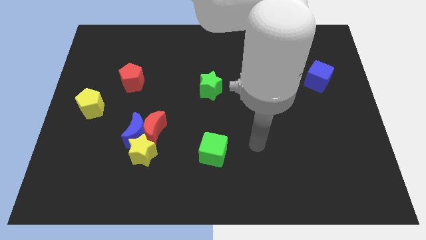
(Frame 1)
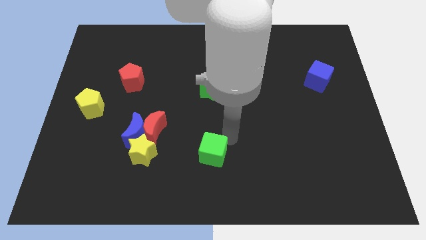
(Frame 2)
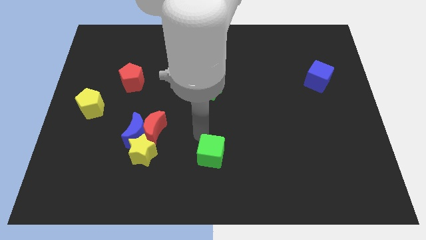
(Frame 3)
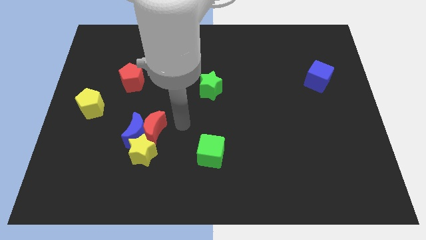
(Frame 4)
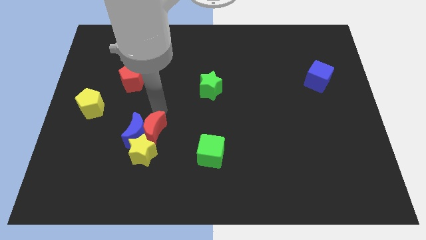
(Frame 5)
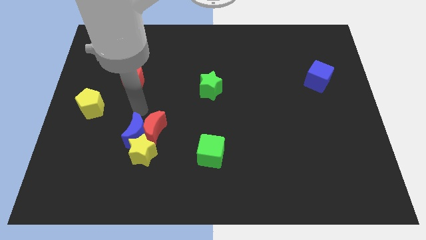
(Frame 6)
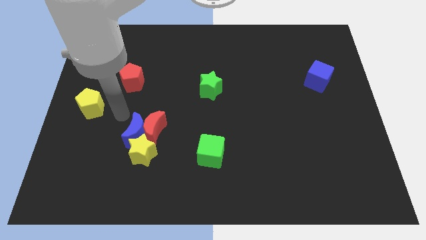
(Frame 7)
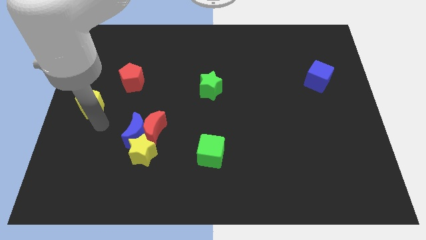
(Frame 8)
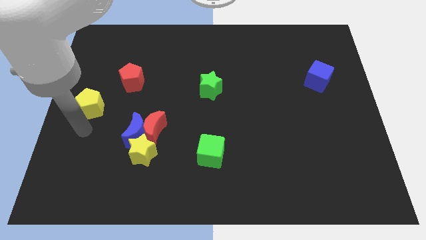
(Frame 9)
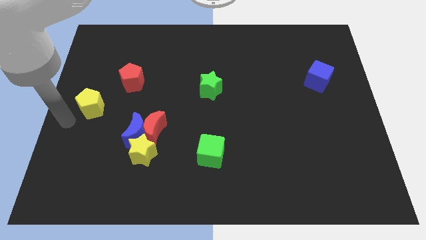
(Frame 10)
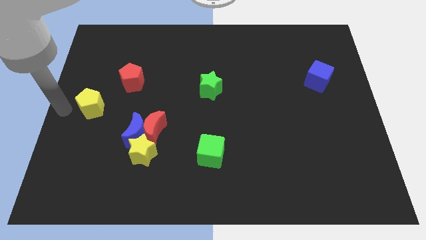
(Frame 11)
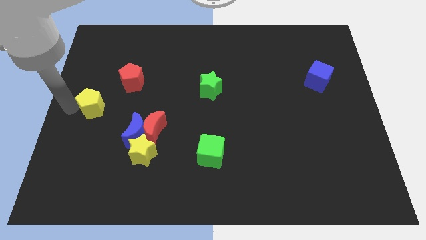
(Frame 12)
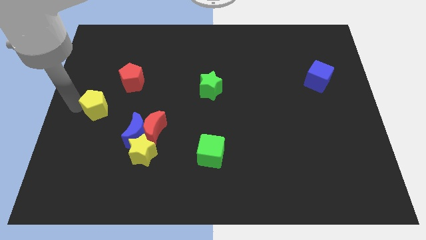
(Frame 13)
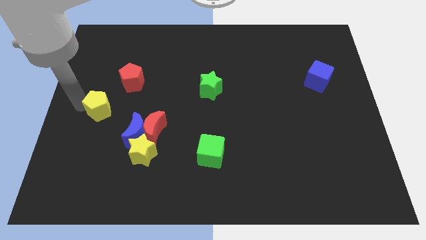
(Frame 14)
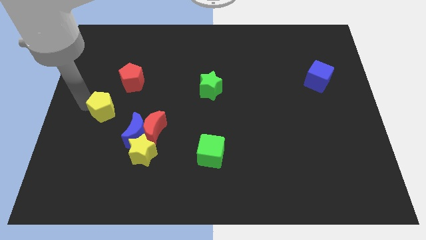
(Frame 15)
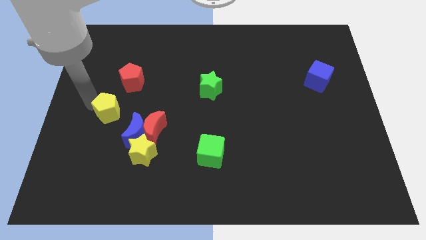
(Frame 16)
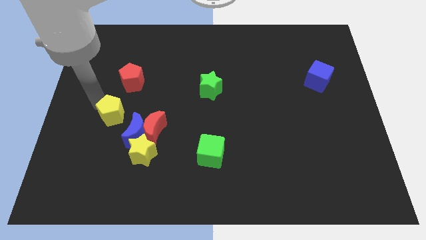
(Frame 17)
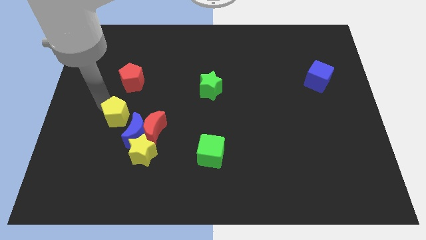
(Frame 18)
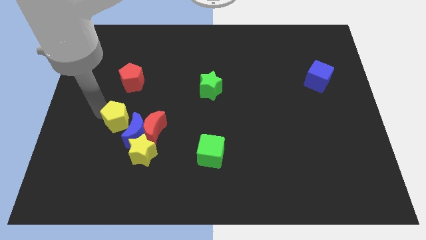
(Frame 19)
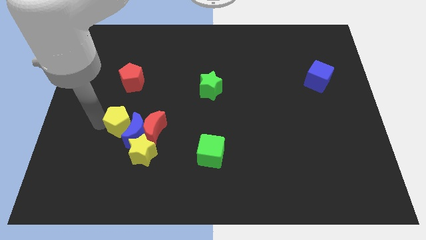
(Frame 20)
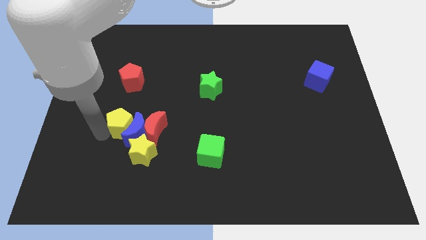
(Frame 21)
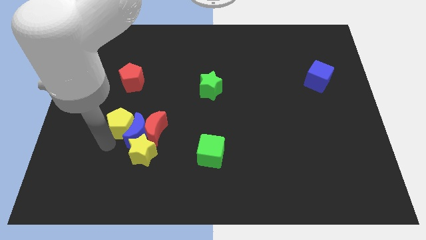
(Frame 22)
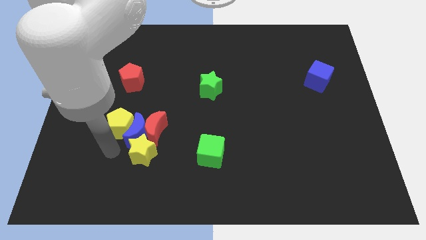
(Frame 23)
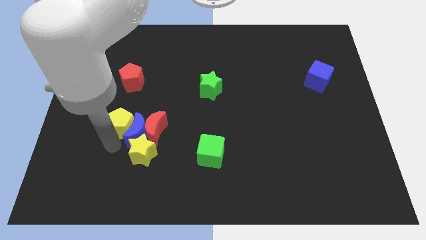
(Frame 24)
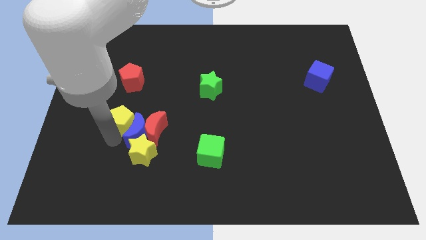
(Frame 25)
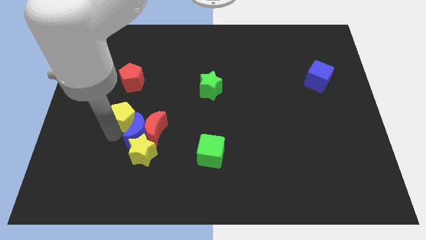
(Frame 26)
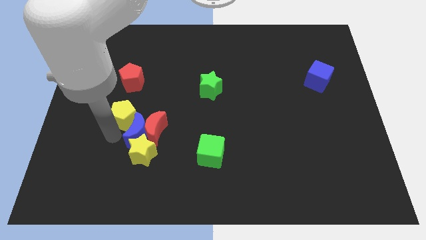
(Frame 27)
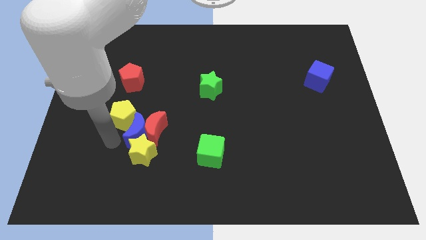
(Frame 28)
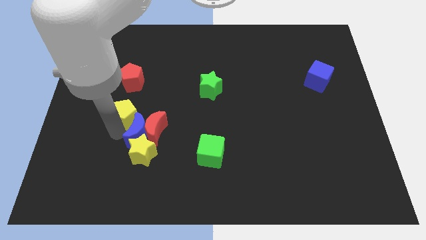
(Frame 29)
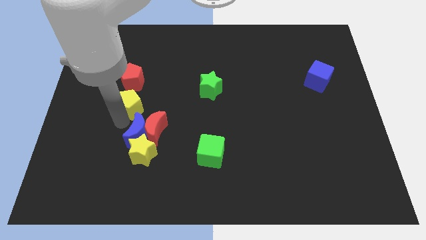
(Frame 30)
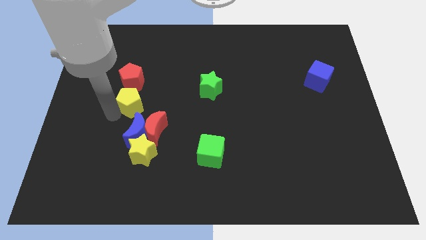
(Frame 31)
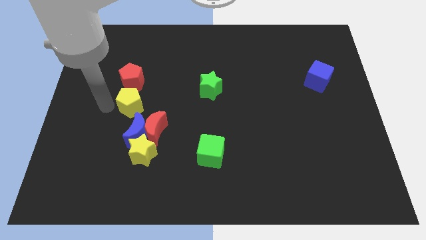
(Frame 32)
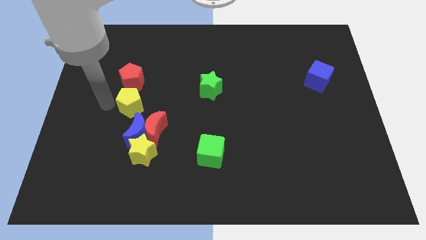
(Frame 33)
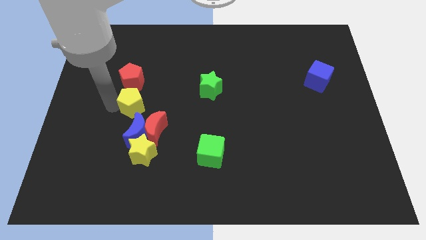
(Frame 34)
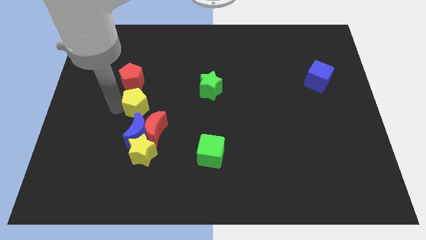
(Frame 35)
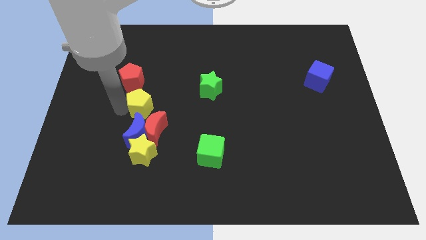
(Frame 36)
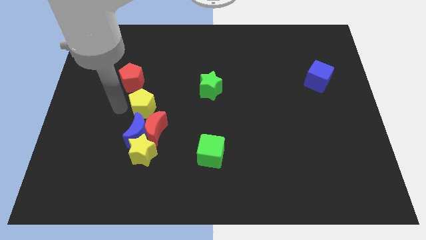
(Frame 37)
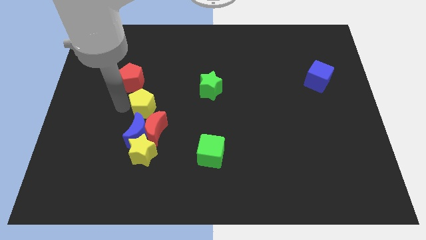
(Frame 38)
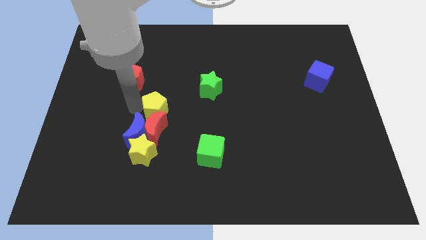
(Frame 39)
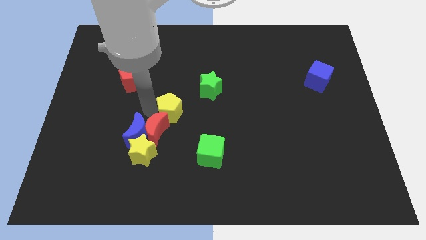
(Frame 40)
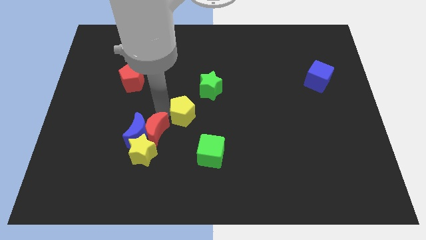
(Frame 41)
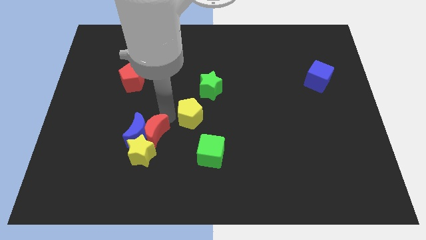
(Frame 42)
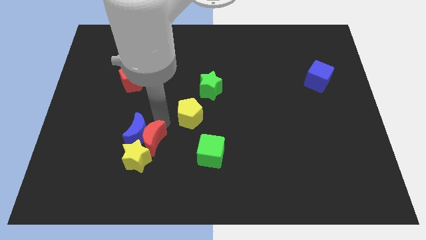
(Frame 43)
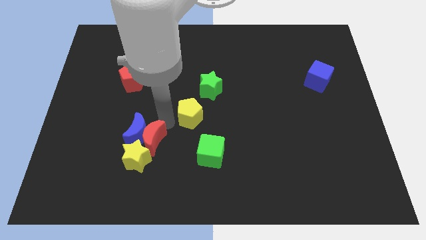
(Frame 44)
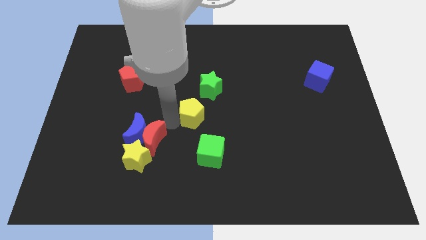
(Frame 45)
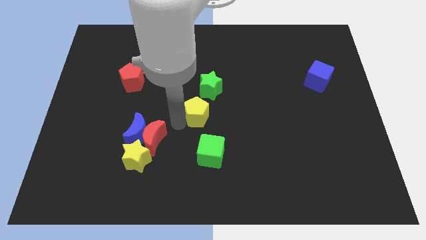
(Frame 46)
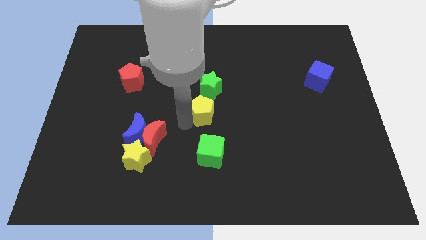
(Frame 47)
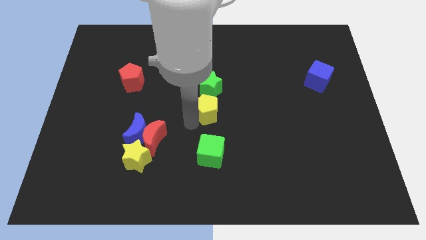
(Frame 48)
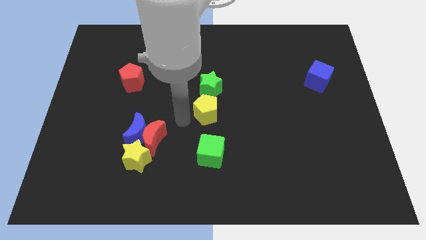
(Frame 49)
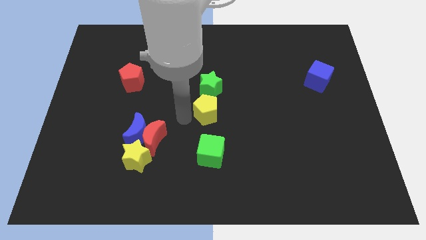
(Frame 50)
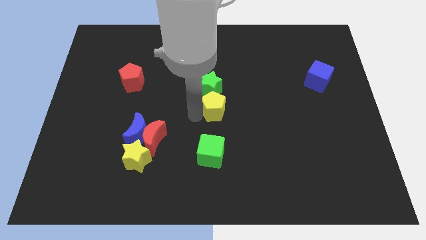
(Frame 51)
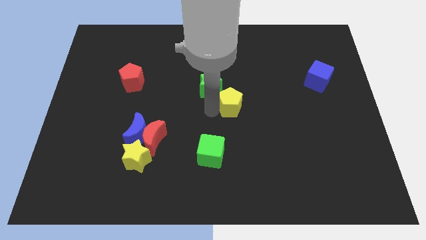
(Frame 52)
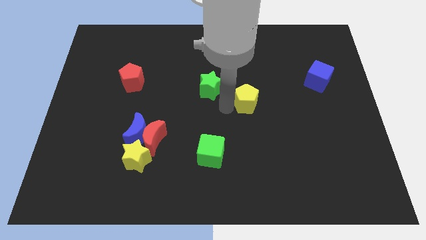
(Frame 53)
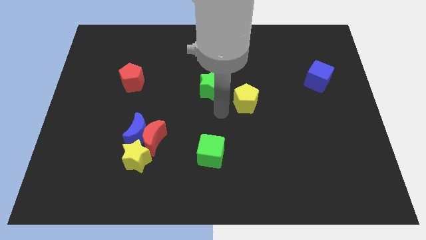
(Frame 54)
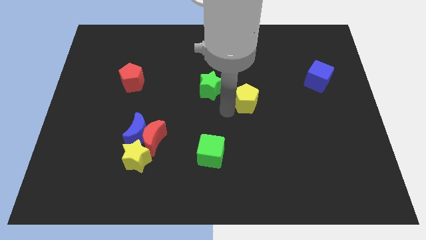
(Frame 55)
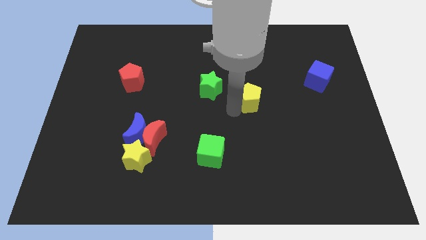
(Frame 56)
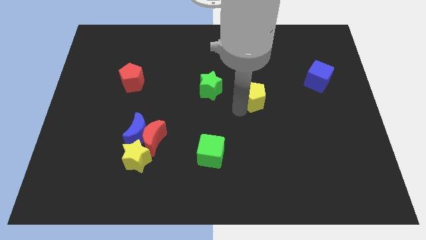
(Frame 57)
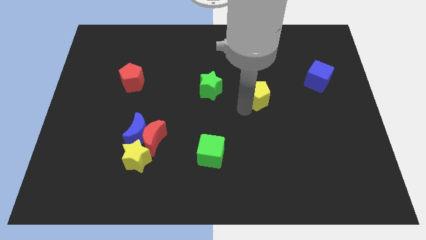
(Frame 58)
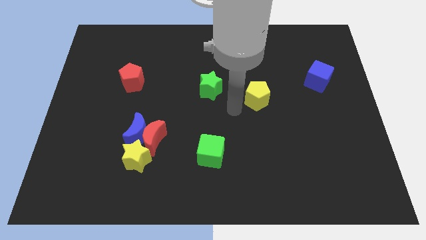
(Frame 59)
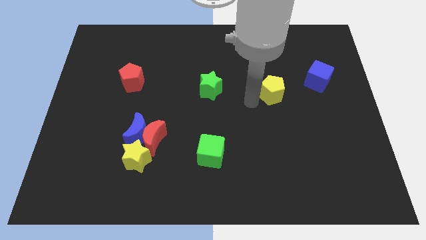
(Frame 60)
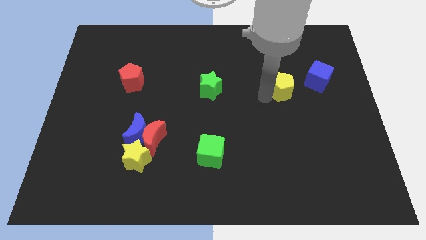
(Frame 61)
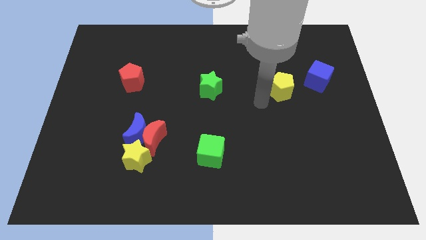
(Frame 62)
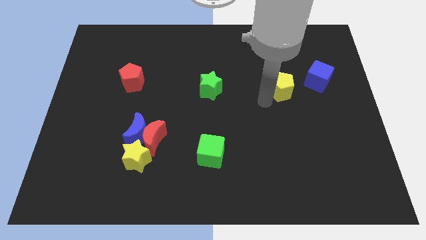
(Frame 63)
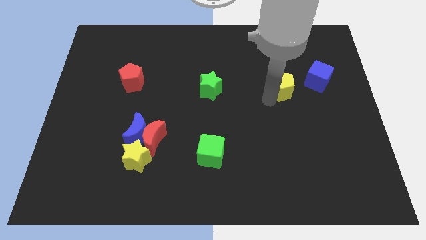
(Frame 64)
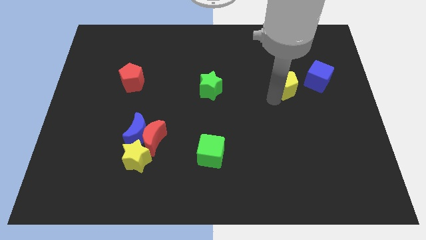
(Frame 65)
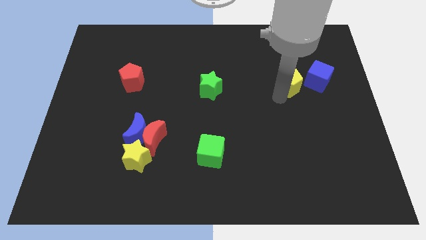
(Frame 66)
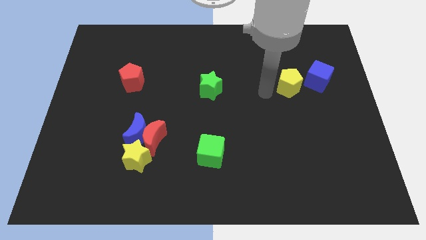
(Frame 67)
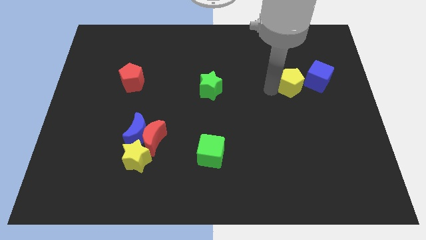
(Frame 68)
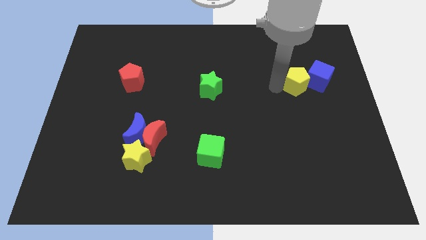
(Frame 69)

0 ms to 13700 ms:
slide the yellow pentagon next to the blue cube

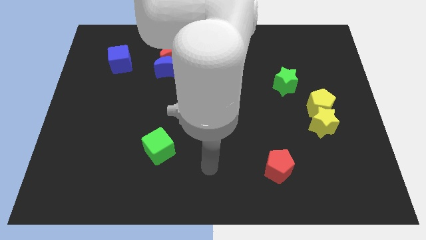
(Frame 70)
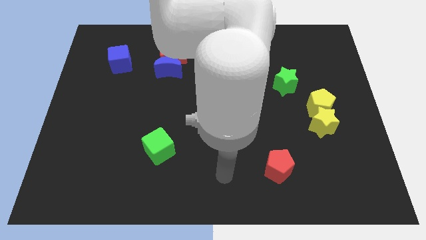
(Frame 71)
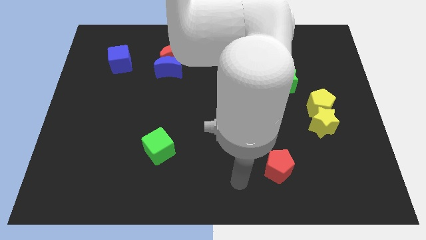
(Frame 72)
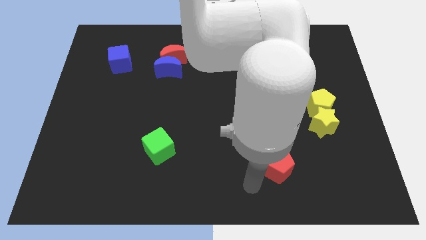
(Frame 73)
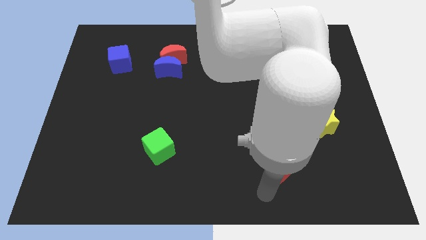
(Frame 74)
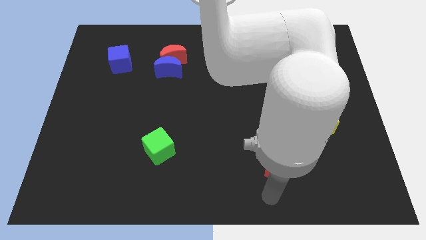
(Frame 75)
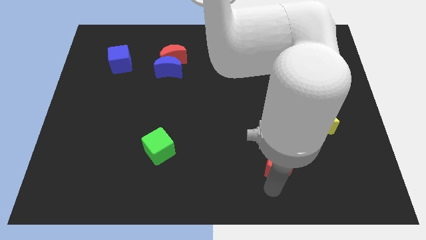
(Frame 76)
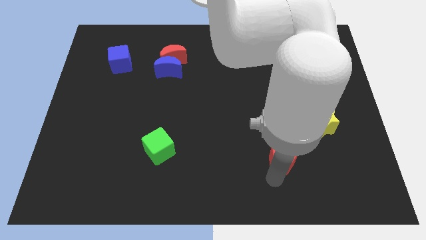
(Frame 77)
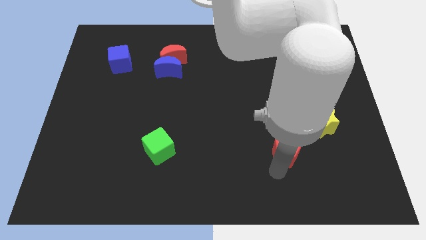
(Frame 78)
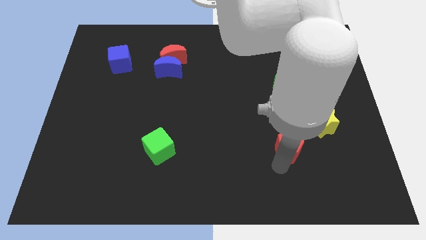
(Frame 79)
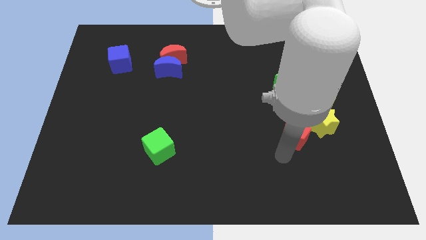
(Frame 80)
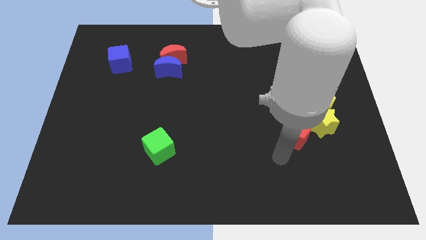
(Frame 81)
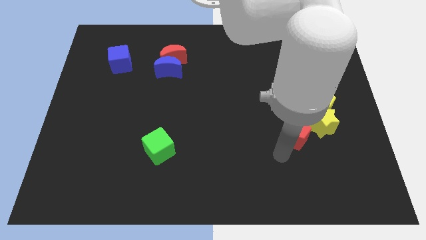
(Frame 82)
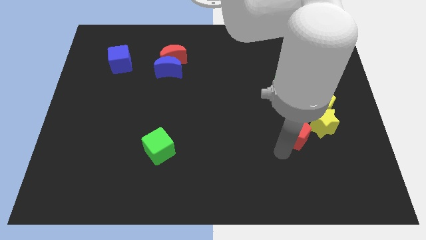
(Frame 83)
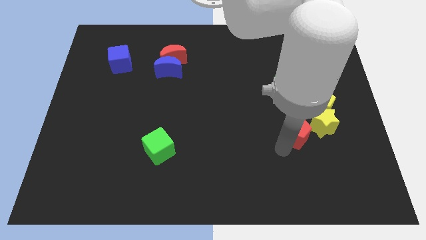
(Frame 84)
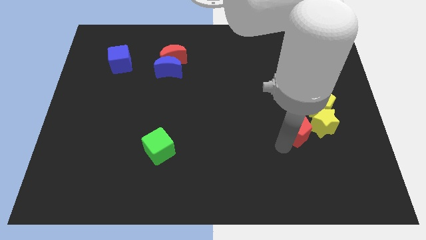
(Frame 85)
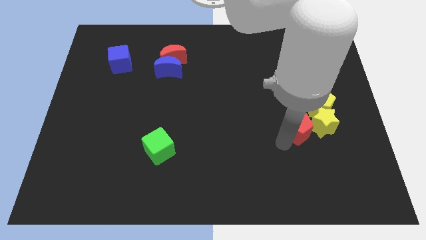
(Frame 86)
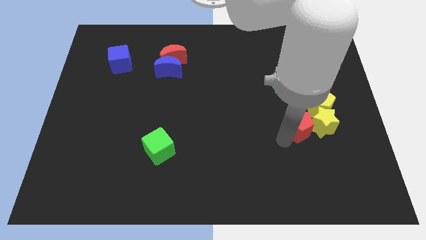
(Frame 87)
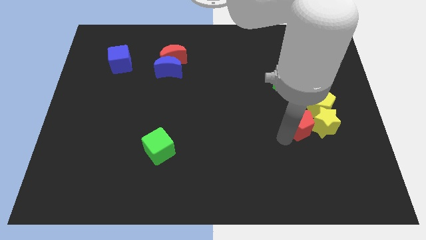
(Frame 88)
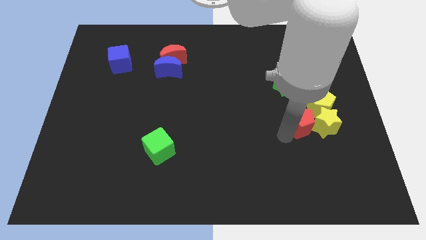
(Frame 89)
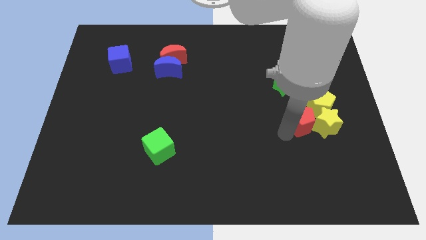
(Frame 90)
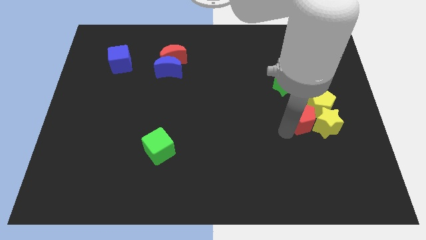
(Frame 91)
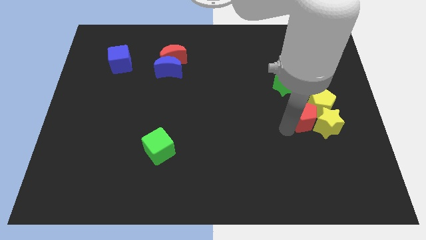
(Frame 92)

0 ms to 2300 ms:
slide the red pentagon to the yellow pentagon
